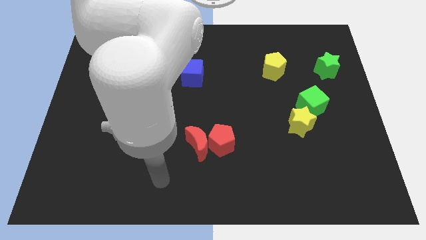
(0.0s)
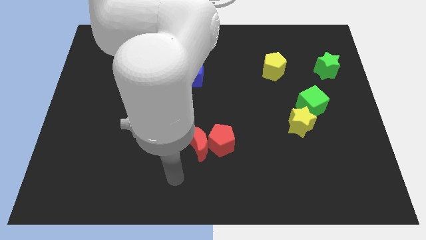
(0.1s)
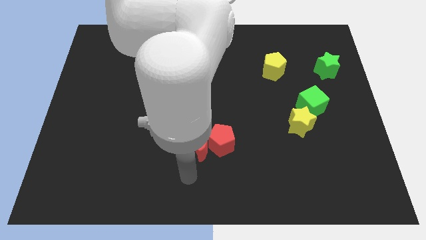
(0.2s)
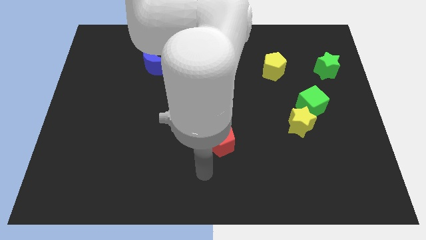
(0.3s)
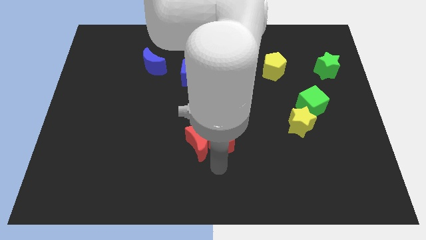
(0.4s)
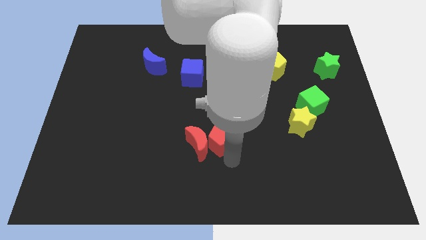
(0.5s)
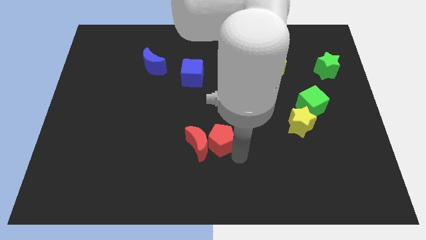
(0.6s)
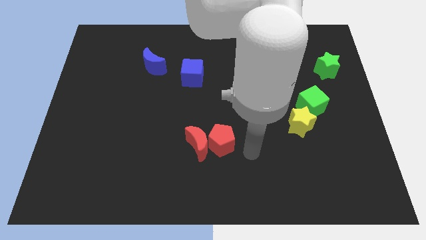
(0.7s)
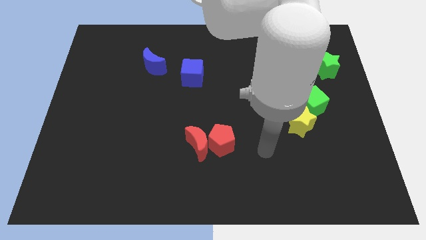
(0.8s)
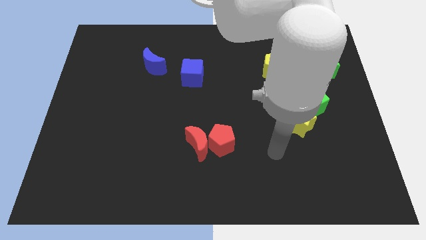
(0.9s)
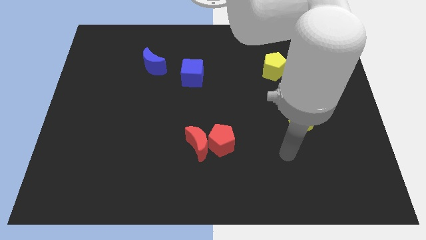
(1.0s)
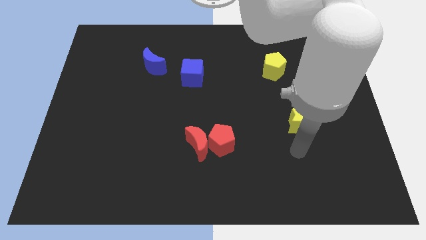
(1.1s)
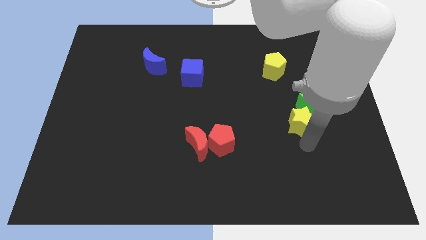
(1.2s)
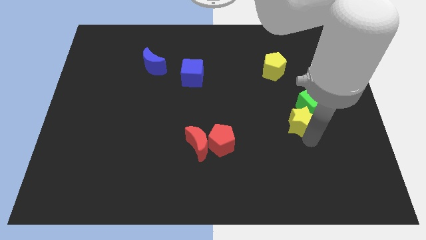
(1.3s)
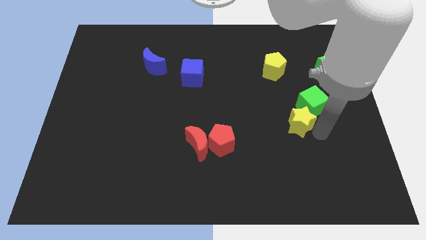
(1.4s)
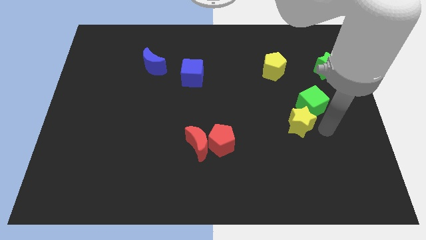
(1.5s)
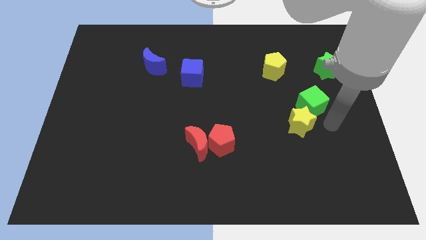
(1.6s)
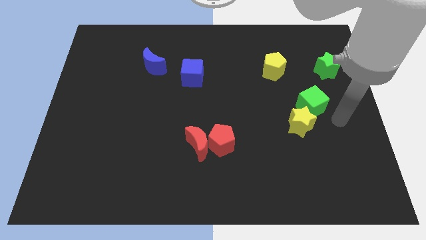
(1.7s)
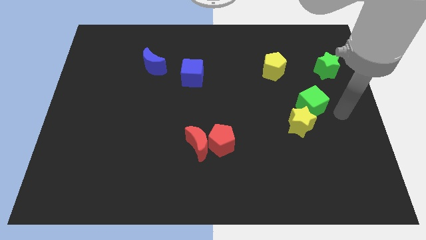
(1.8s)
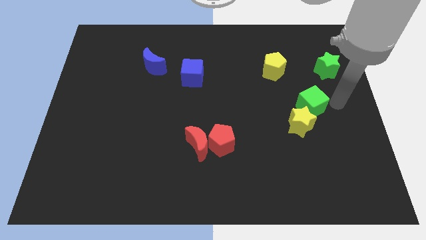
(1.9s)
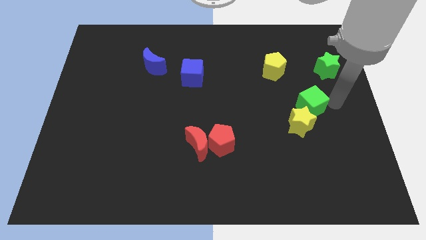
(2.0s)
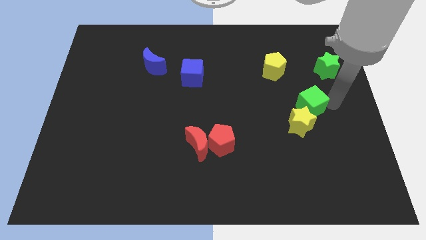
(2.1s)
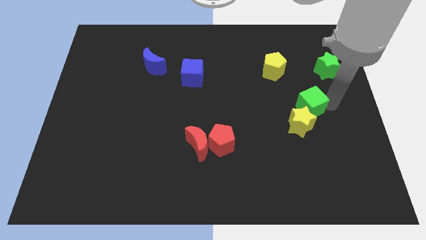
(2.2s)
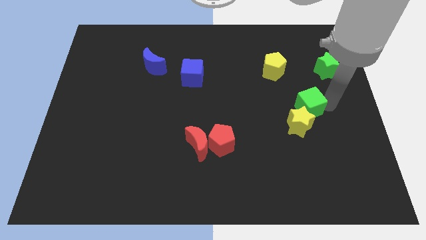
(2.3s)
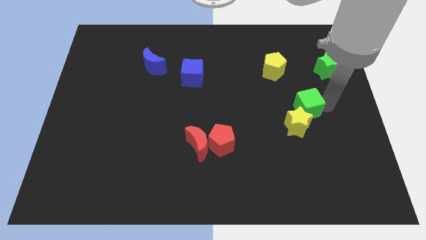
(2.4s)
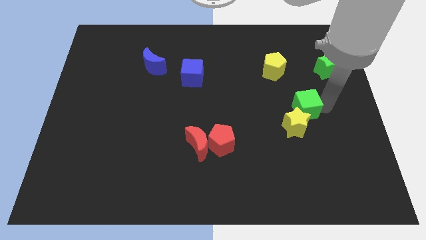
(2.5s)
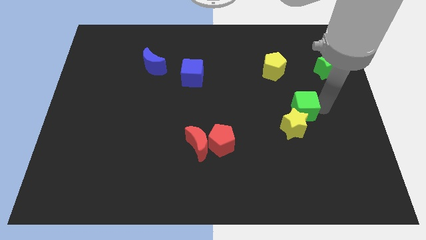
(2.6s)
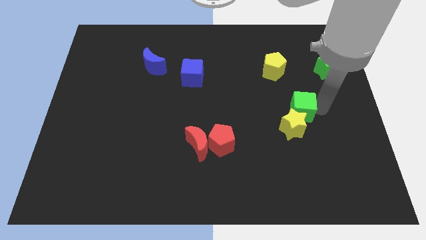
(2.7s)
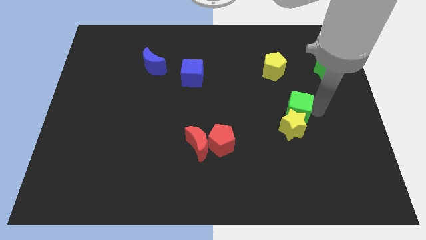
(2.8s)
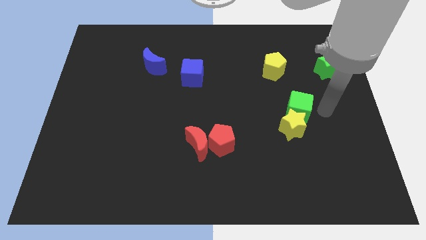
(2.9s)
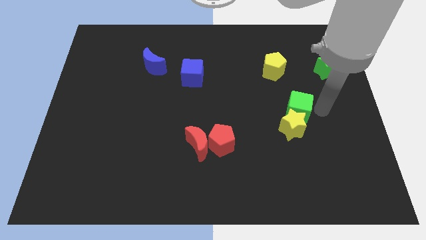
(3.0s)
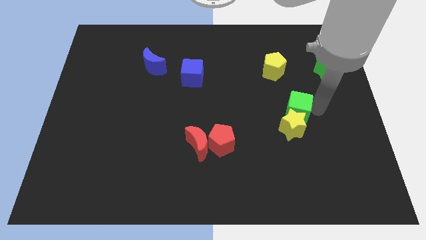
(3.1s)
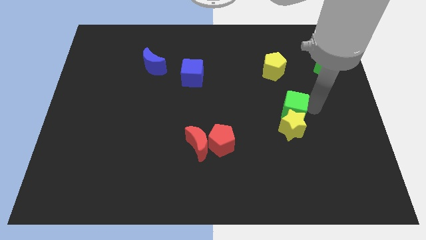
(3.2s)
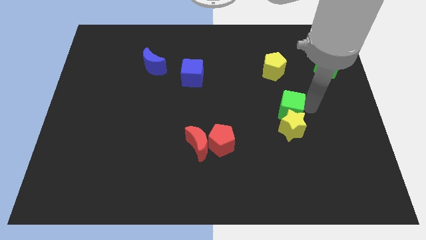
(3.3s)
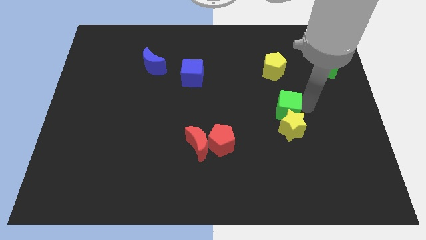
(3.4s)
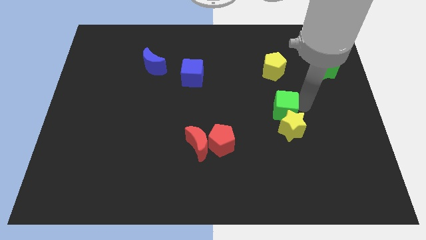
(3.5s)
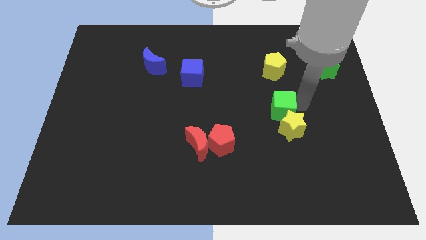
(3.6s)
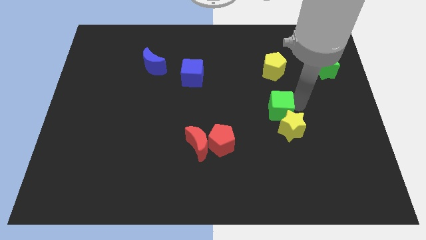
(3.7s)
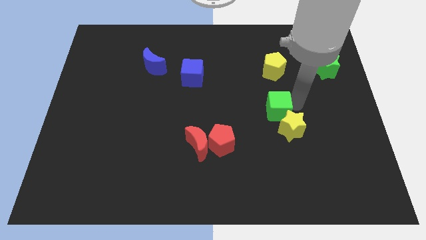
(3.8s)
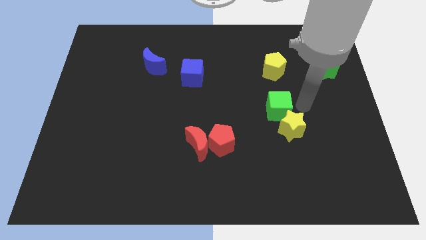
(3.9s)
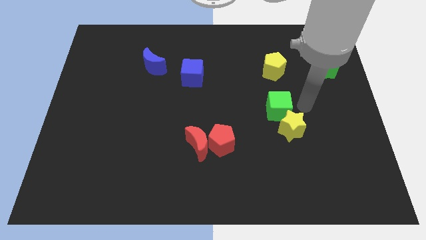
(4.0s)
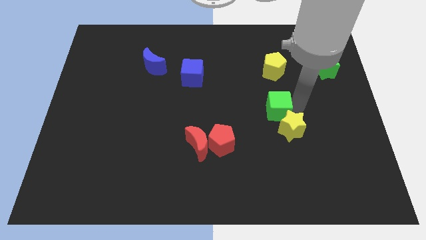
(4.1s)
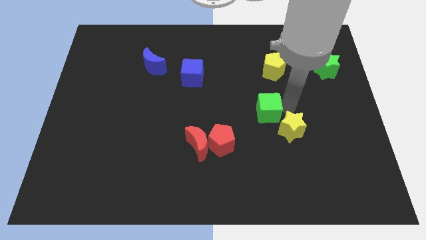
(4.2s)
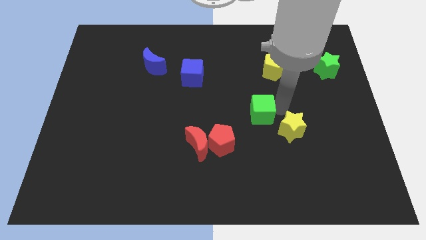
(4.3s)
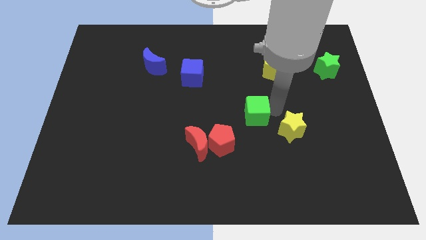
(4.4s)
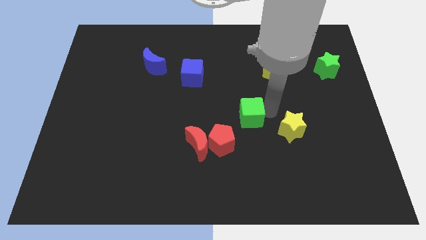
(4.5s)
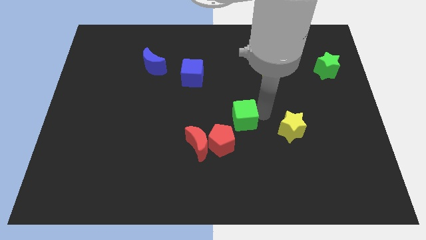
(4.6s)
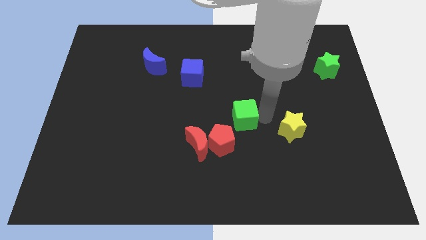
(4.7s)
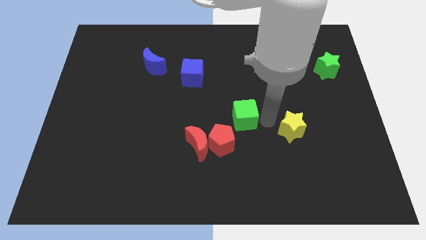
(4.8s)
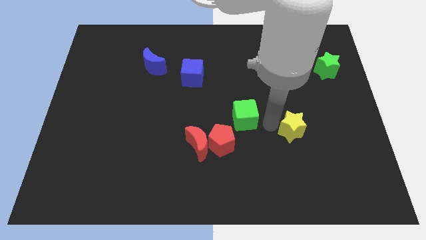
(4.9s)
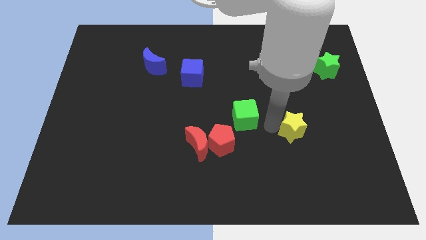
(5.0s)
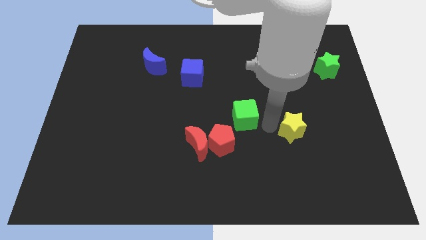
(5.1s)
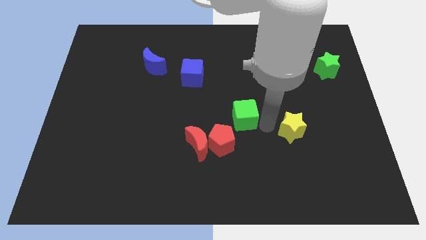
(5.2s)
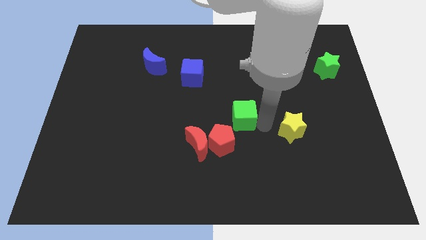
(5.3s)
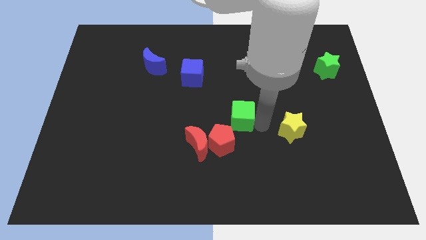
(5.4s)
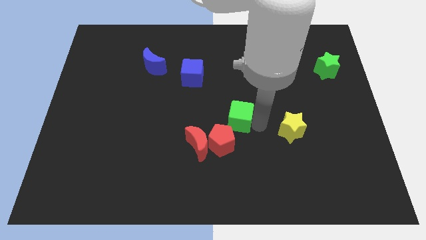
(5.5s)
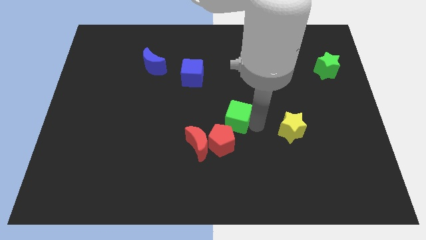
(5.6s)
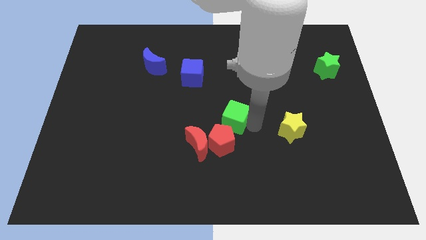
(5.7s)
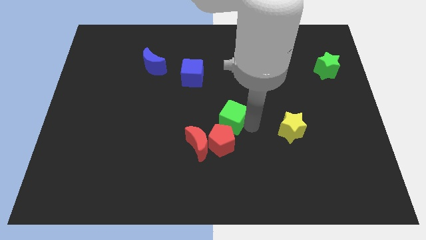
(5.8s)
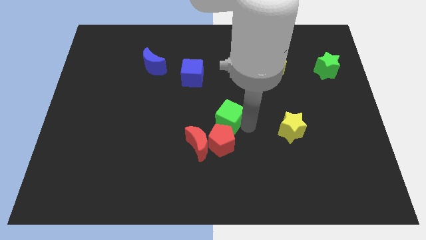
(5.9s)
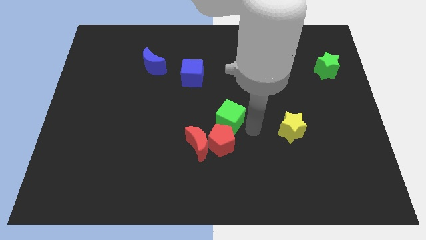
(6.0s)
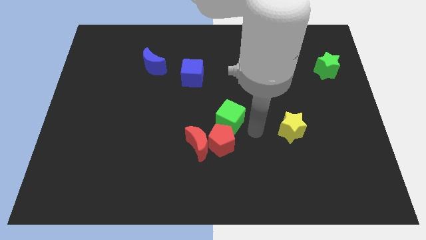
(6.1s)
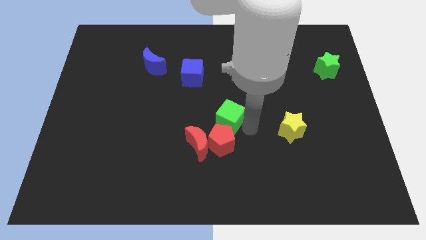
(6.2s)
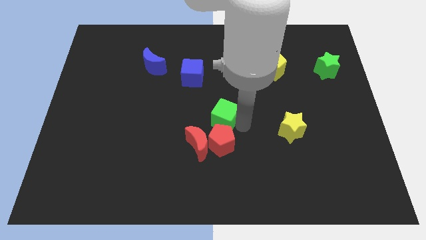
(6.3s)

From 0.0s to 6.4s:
move the green cube left

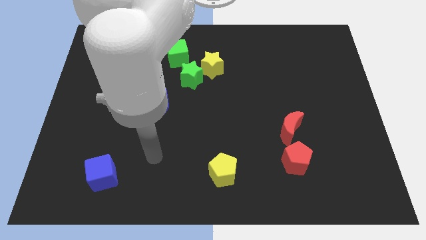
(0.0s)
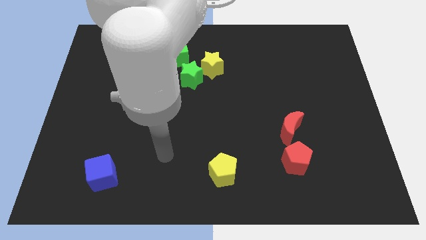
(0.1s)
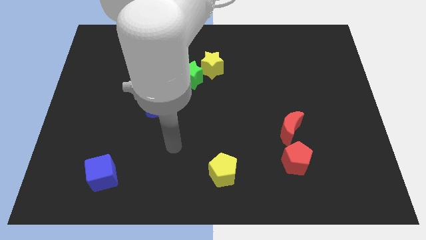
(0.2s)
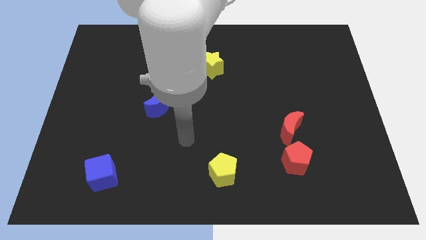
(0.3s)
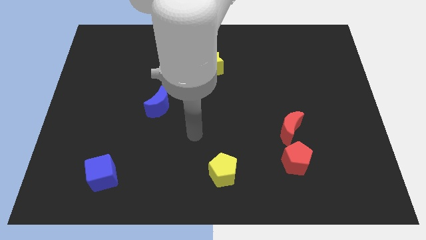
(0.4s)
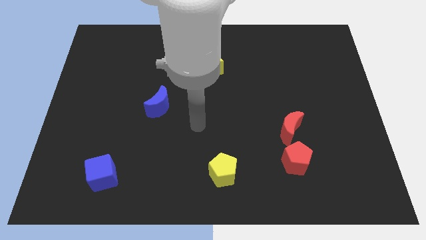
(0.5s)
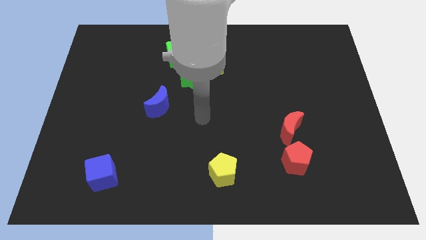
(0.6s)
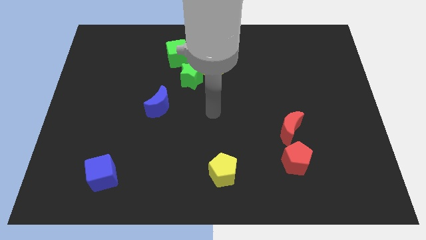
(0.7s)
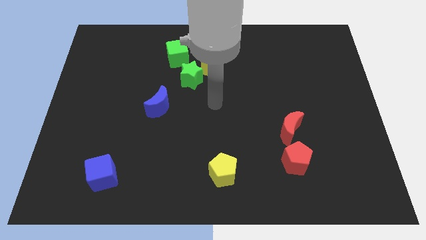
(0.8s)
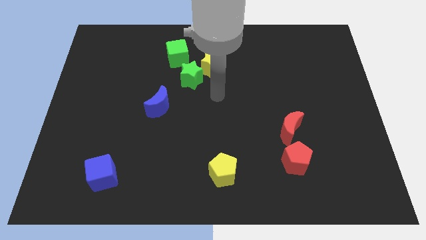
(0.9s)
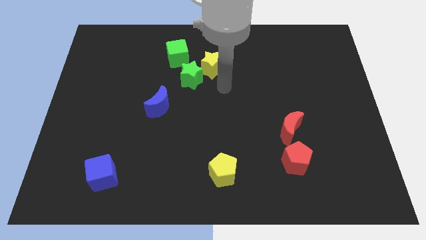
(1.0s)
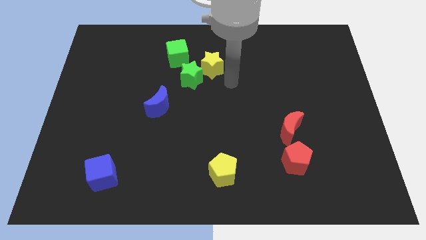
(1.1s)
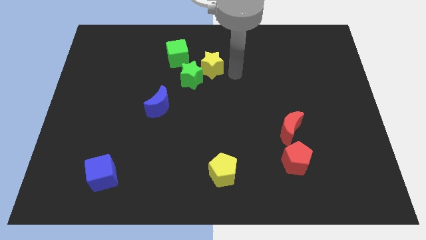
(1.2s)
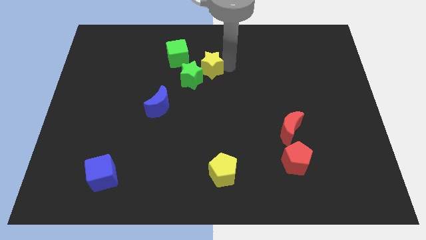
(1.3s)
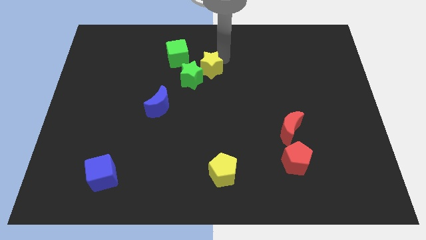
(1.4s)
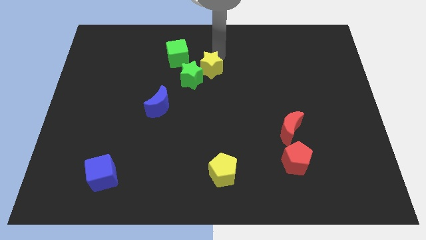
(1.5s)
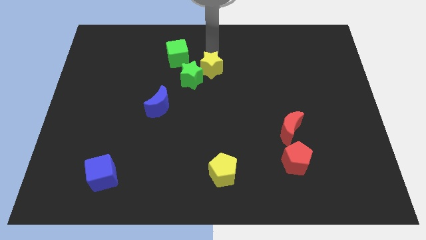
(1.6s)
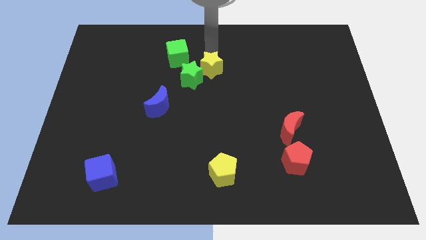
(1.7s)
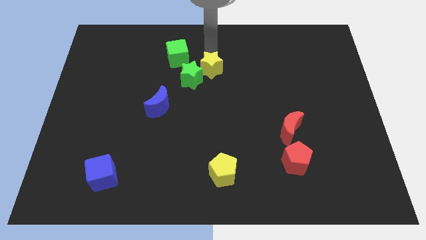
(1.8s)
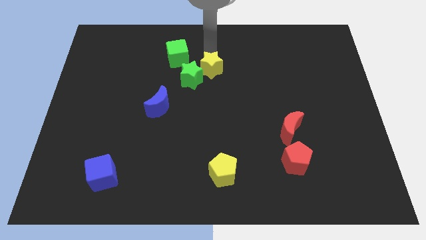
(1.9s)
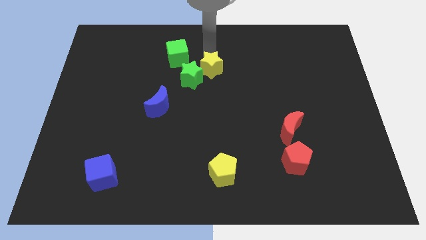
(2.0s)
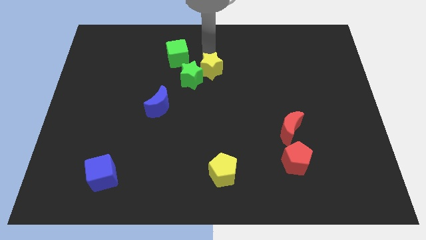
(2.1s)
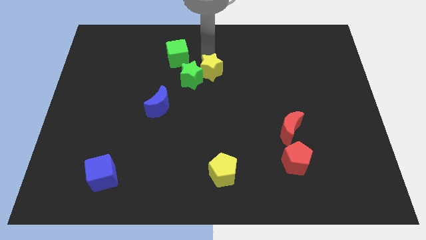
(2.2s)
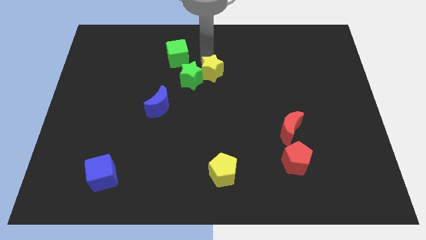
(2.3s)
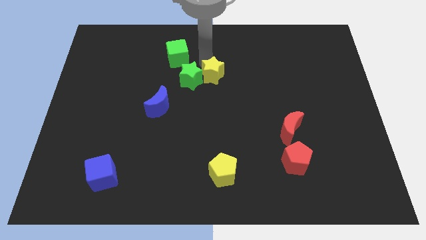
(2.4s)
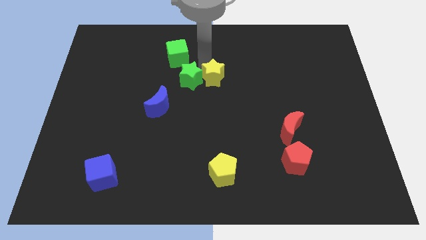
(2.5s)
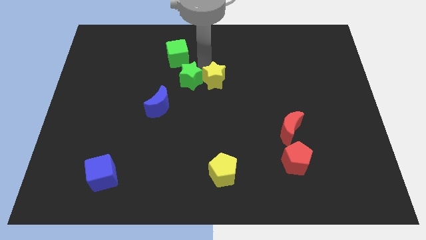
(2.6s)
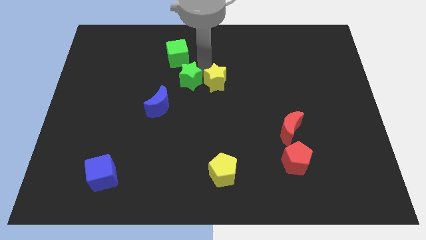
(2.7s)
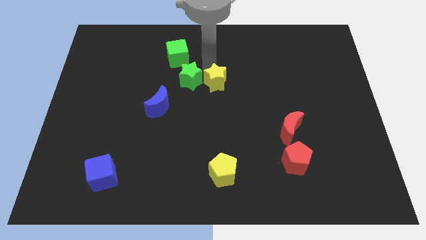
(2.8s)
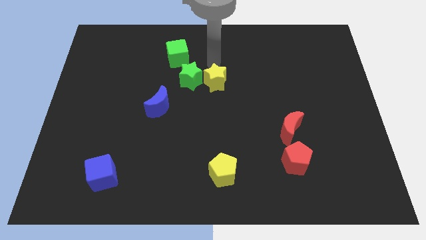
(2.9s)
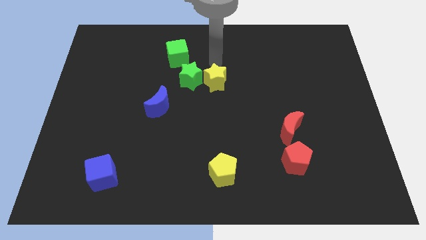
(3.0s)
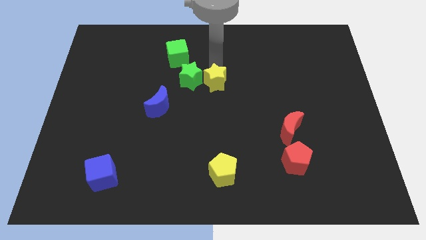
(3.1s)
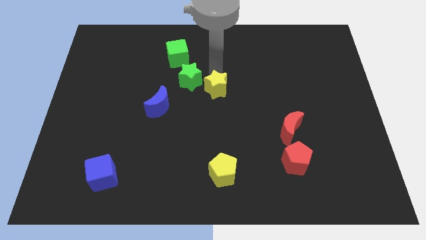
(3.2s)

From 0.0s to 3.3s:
slightly move the yellow star down
